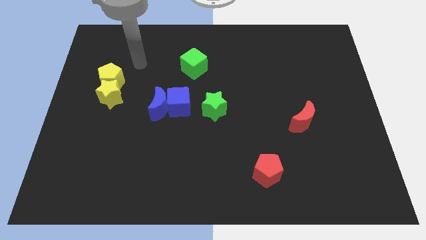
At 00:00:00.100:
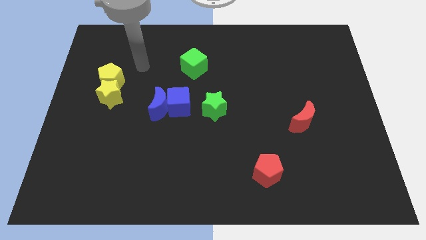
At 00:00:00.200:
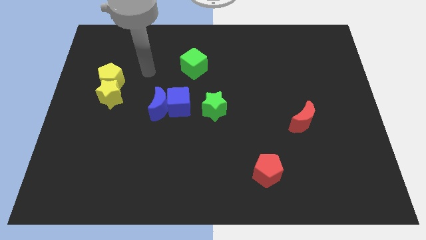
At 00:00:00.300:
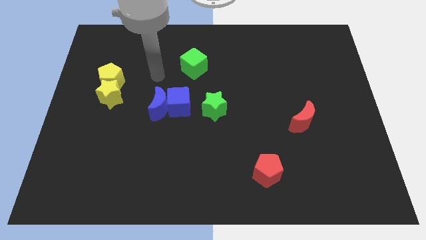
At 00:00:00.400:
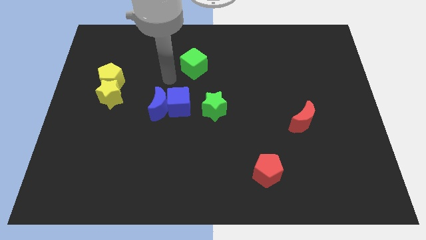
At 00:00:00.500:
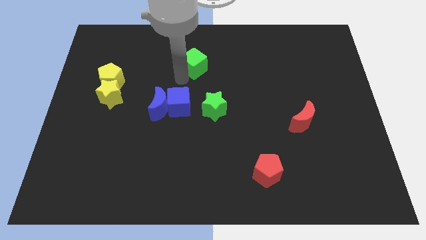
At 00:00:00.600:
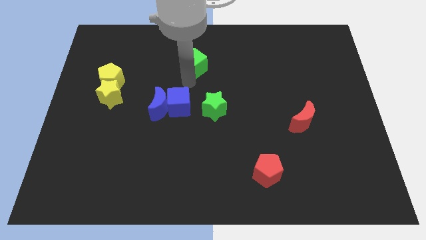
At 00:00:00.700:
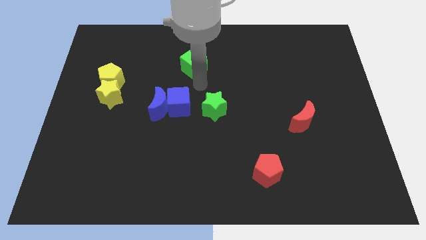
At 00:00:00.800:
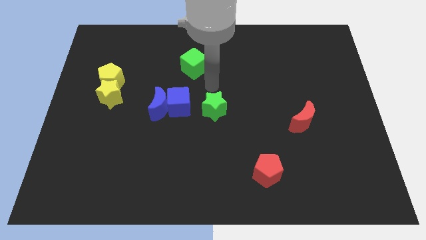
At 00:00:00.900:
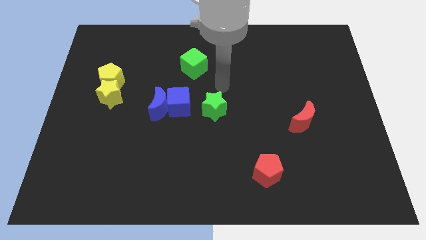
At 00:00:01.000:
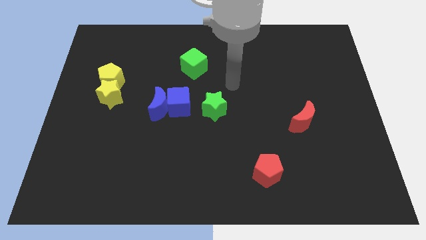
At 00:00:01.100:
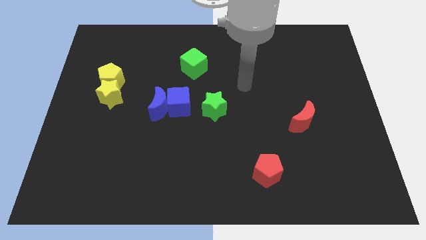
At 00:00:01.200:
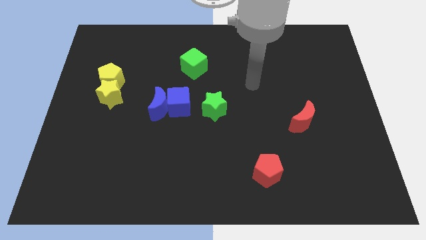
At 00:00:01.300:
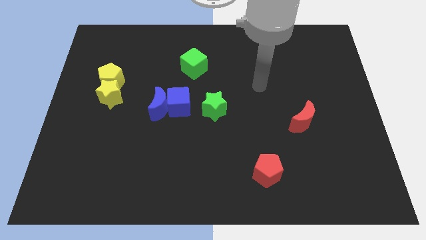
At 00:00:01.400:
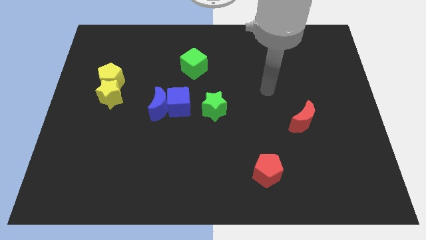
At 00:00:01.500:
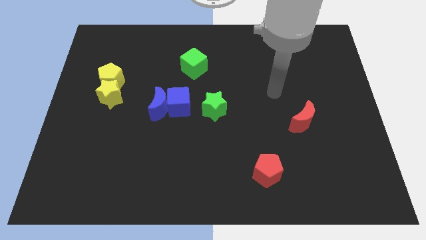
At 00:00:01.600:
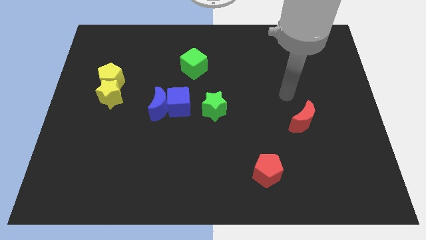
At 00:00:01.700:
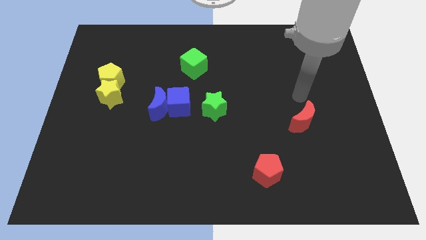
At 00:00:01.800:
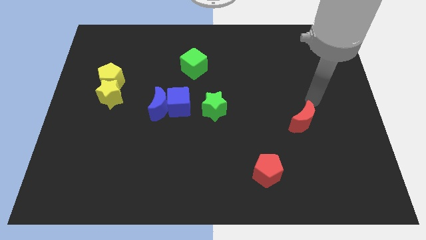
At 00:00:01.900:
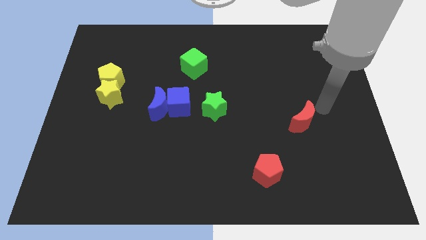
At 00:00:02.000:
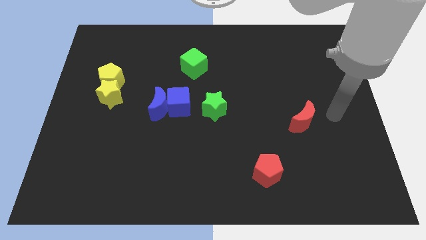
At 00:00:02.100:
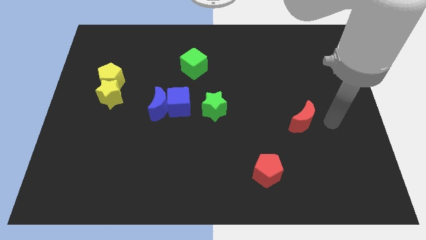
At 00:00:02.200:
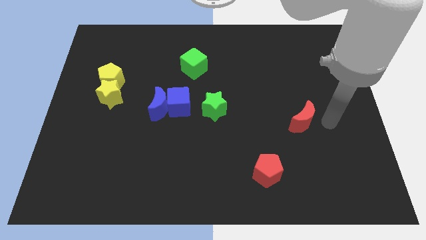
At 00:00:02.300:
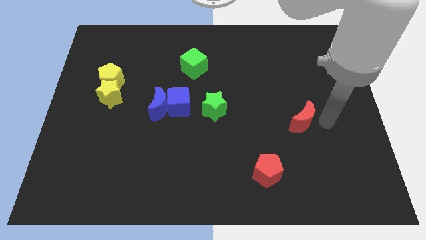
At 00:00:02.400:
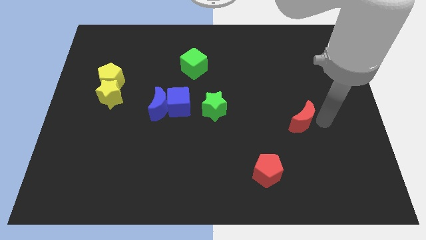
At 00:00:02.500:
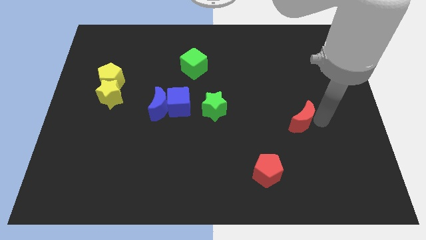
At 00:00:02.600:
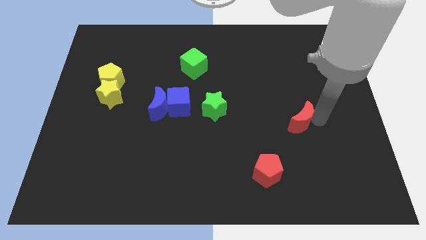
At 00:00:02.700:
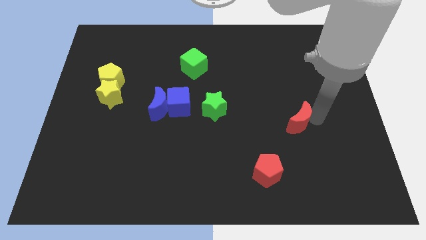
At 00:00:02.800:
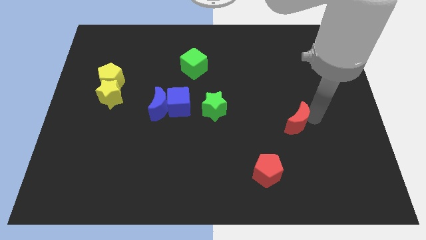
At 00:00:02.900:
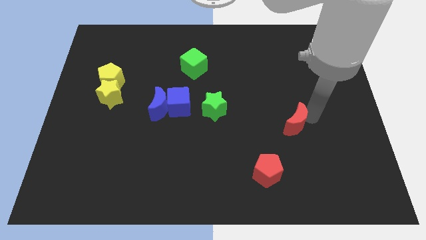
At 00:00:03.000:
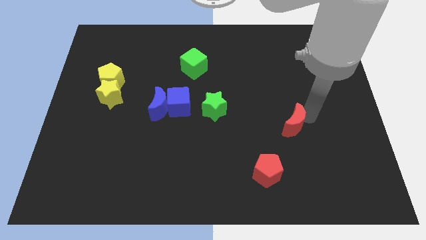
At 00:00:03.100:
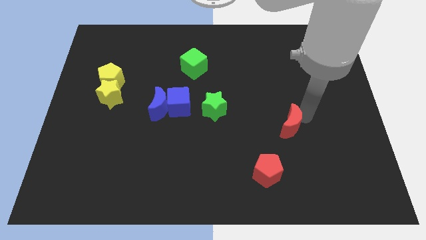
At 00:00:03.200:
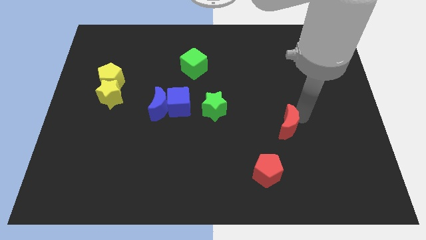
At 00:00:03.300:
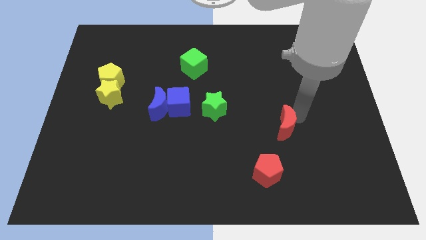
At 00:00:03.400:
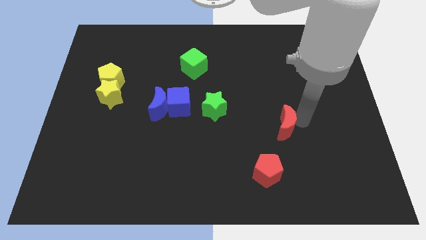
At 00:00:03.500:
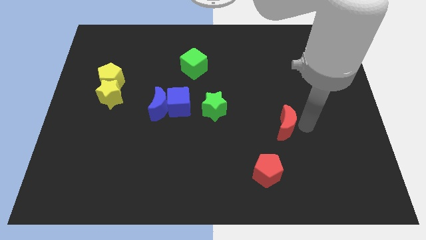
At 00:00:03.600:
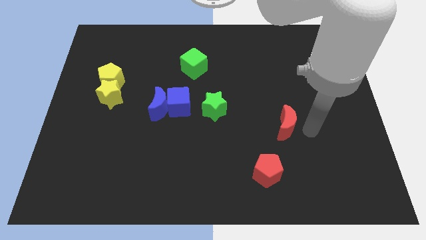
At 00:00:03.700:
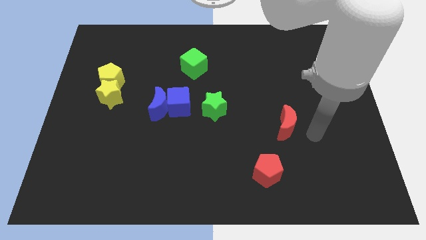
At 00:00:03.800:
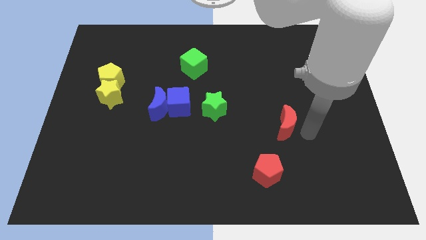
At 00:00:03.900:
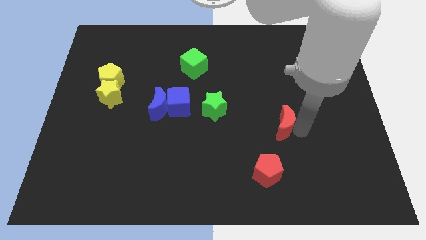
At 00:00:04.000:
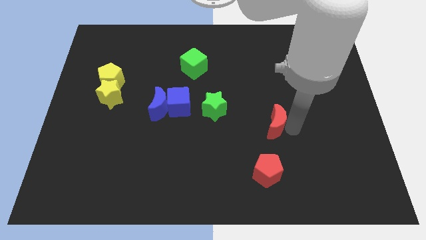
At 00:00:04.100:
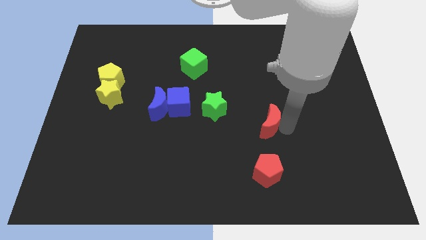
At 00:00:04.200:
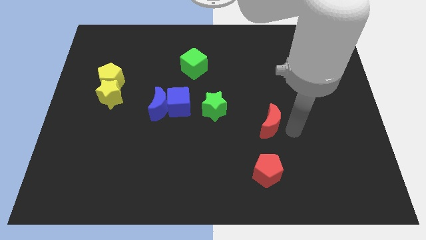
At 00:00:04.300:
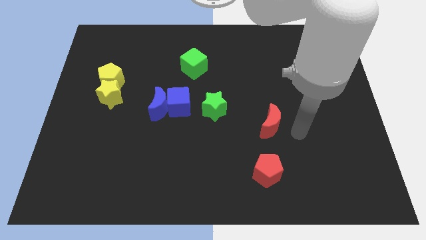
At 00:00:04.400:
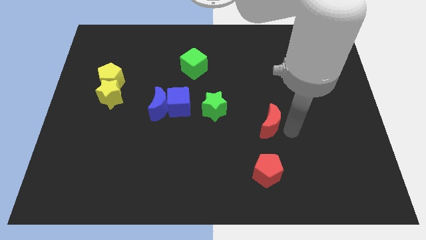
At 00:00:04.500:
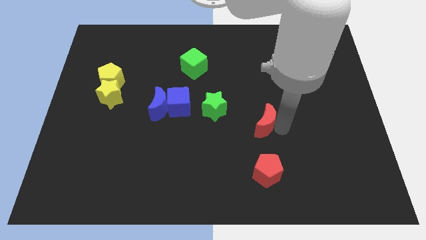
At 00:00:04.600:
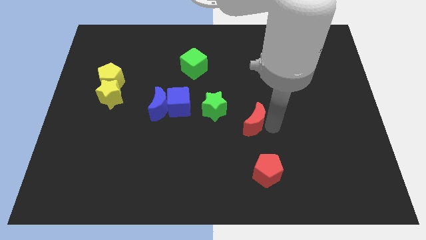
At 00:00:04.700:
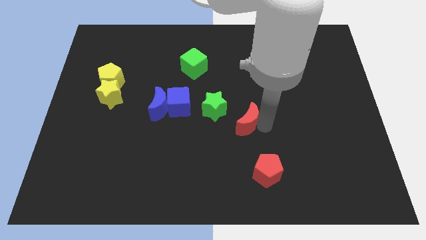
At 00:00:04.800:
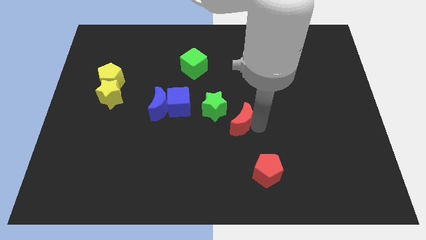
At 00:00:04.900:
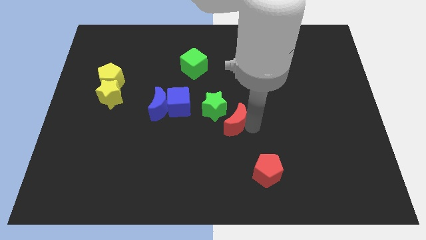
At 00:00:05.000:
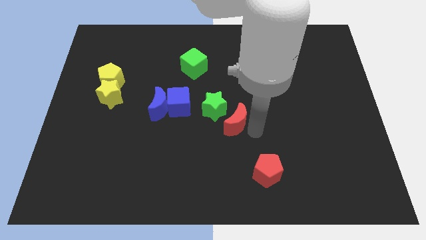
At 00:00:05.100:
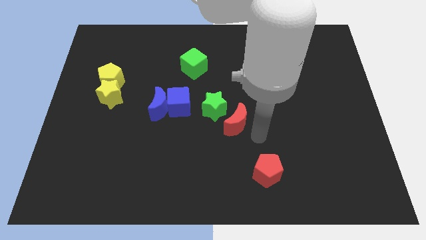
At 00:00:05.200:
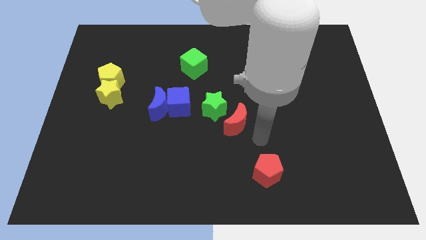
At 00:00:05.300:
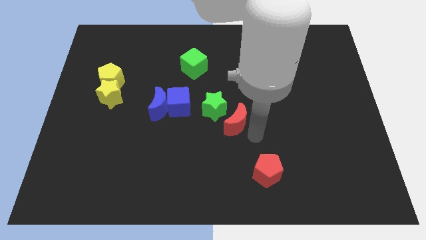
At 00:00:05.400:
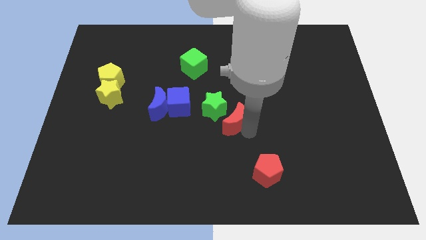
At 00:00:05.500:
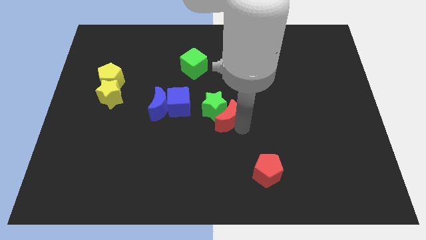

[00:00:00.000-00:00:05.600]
push the red moon close to the green star
